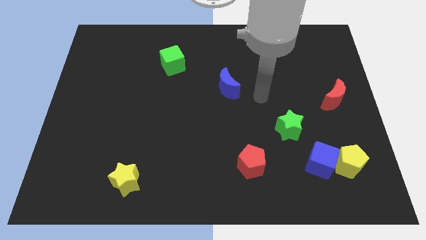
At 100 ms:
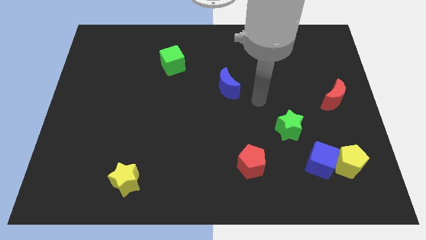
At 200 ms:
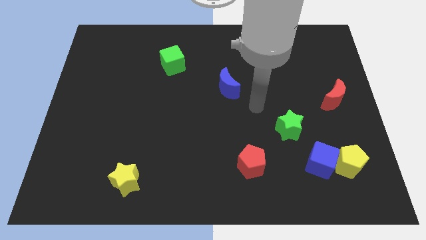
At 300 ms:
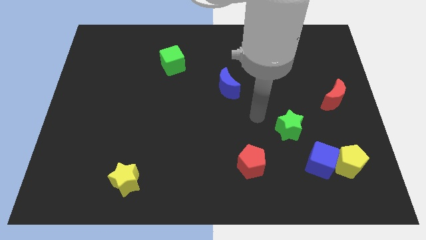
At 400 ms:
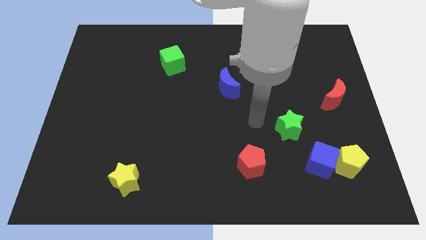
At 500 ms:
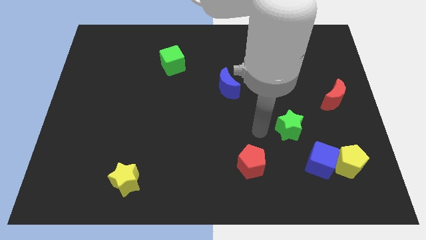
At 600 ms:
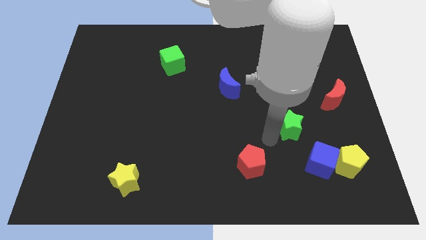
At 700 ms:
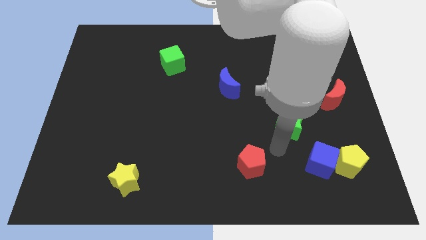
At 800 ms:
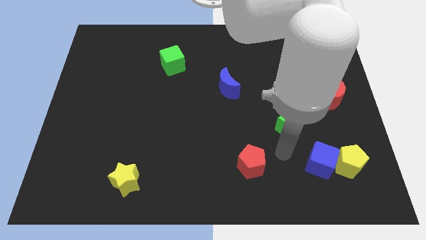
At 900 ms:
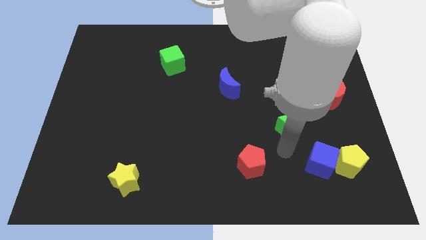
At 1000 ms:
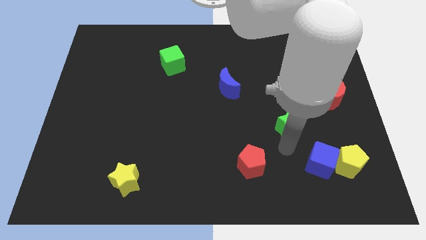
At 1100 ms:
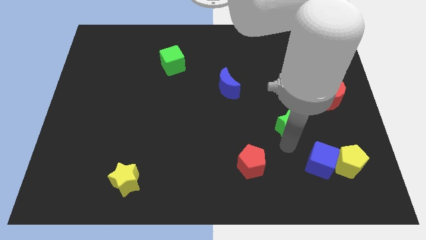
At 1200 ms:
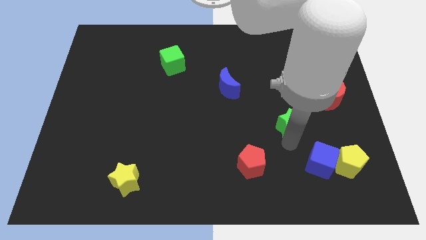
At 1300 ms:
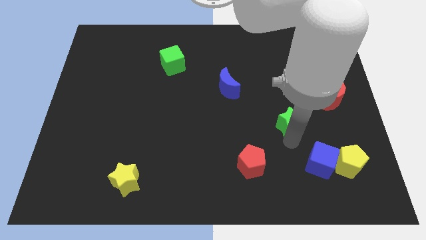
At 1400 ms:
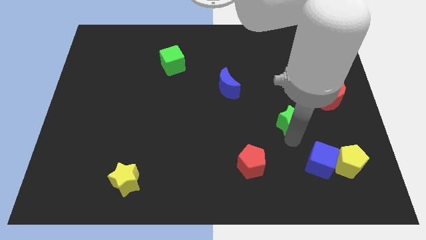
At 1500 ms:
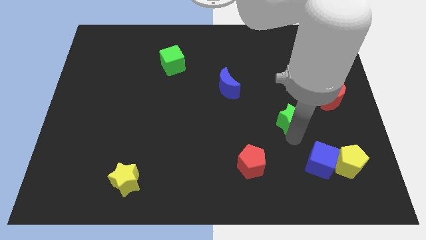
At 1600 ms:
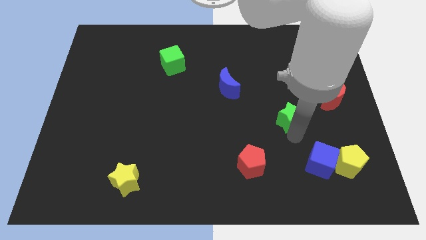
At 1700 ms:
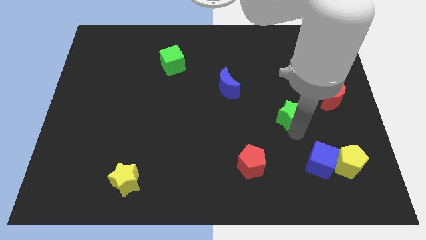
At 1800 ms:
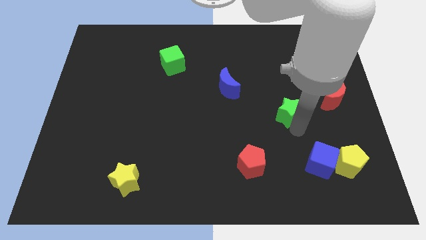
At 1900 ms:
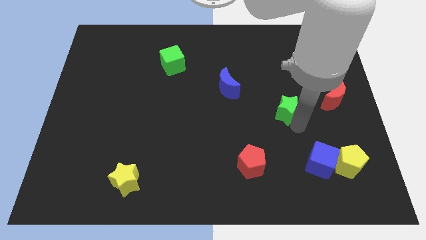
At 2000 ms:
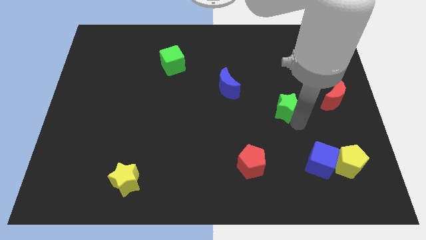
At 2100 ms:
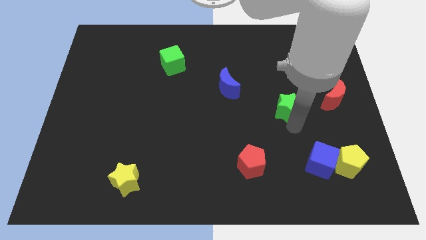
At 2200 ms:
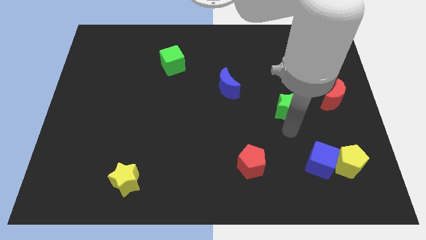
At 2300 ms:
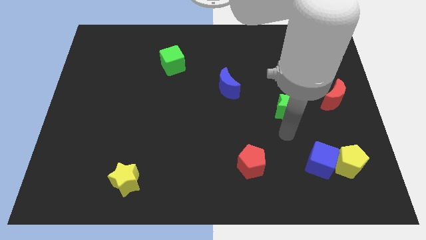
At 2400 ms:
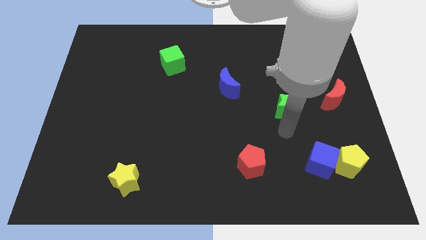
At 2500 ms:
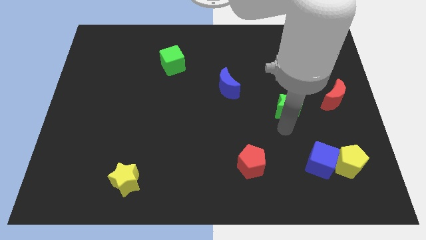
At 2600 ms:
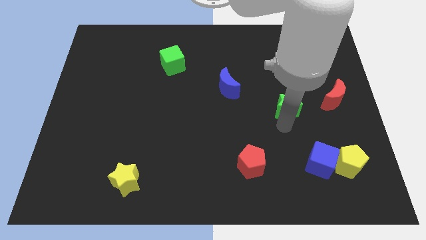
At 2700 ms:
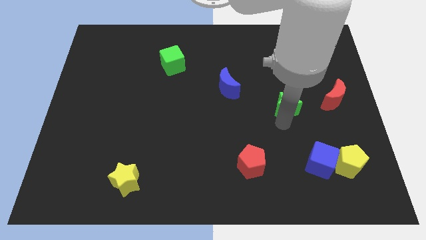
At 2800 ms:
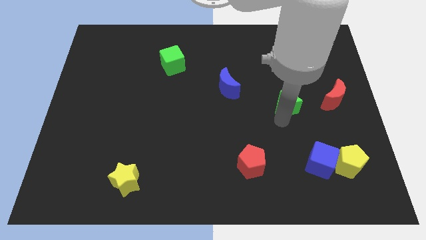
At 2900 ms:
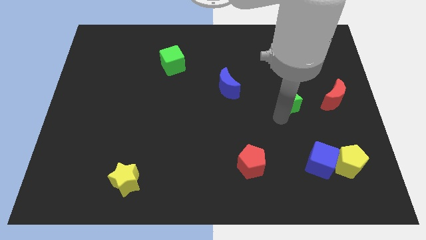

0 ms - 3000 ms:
slightly push the green star up

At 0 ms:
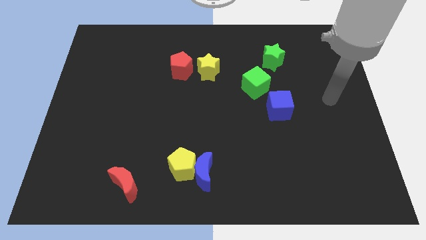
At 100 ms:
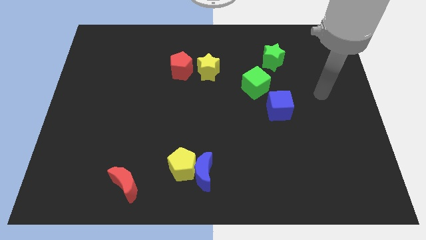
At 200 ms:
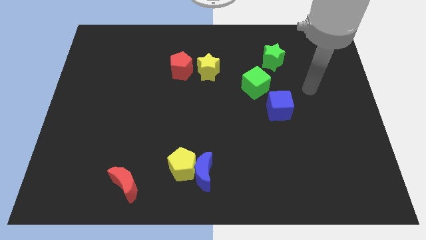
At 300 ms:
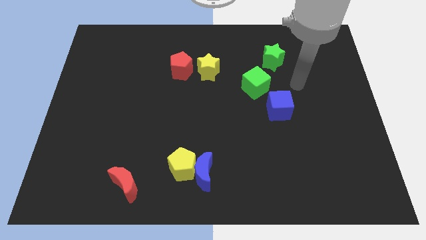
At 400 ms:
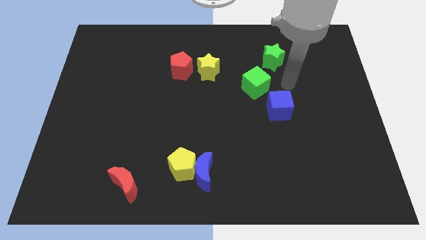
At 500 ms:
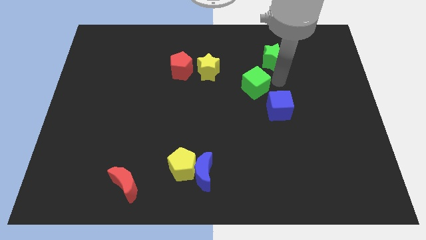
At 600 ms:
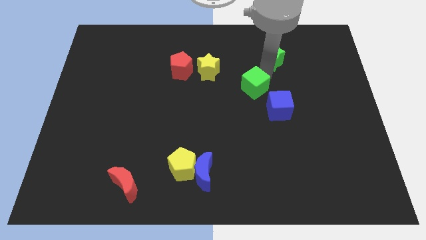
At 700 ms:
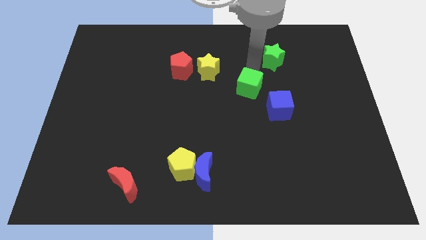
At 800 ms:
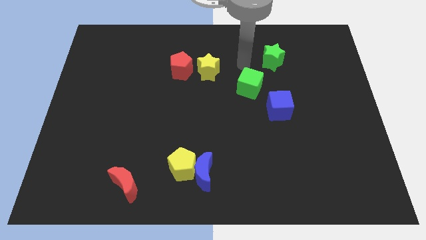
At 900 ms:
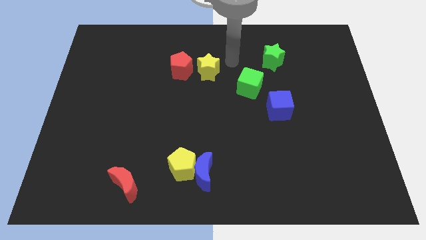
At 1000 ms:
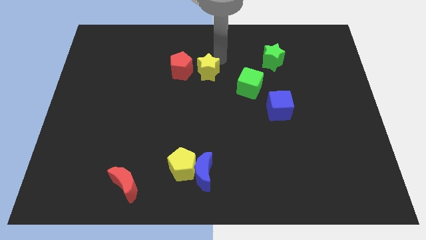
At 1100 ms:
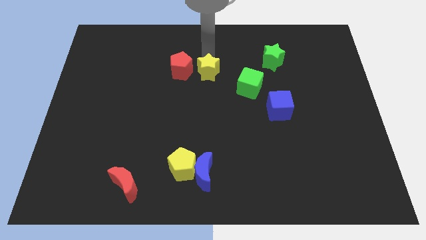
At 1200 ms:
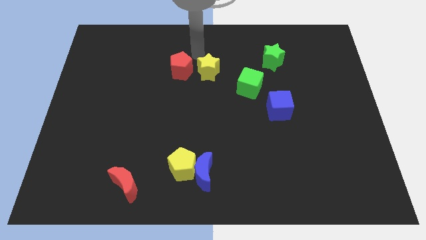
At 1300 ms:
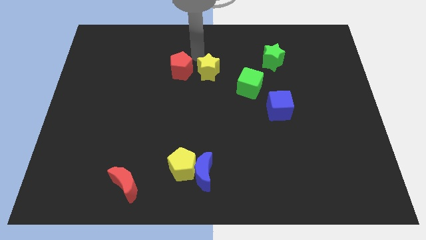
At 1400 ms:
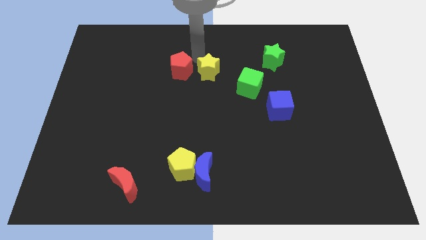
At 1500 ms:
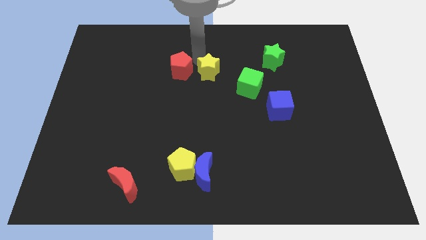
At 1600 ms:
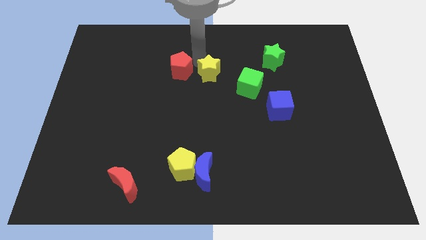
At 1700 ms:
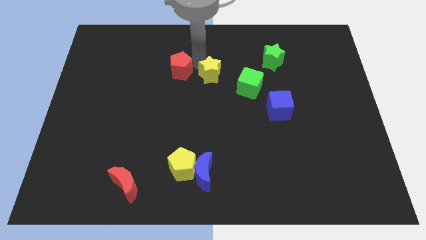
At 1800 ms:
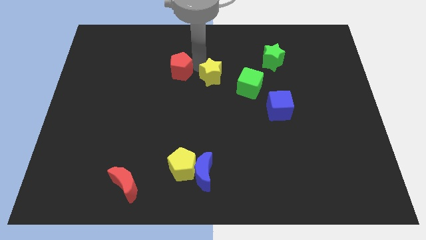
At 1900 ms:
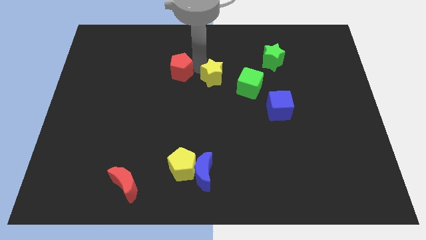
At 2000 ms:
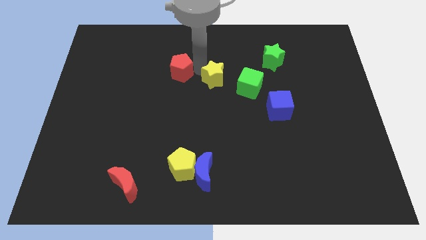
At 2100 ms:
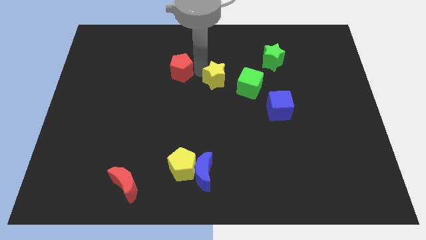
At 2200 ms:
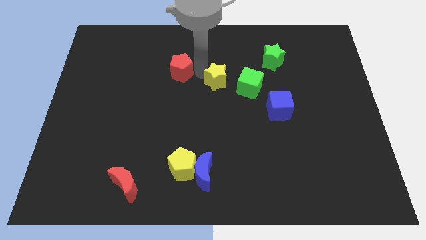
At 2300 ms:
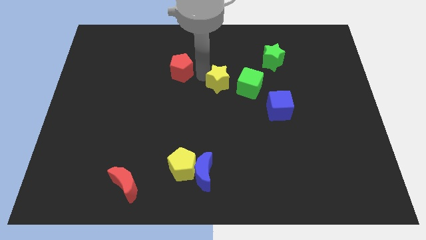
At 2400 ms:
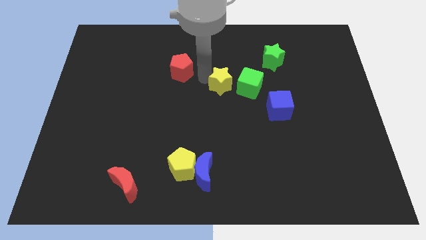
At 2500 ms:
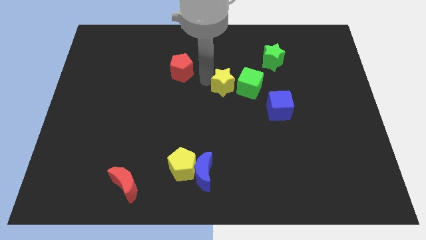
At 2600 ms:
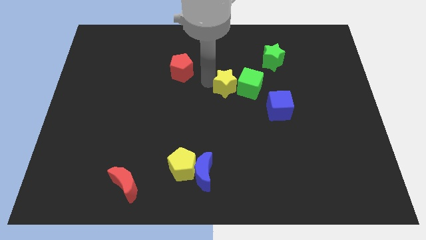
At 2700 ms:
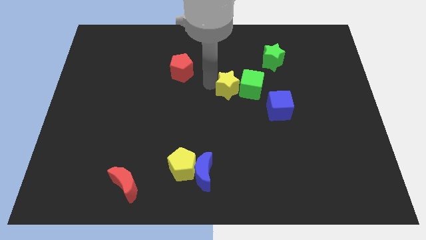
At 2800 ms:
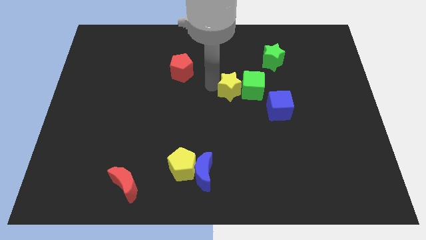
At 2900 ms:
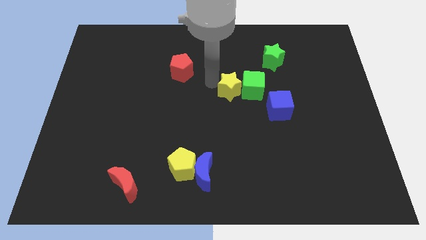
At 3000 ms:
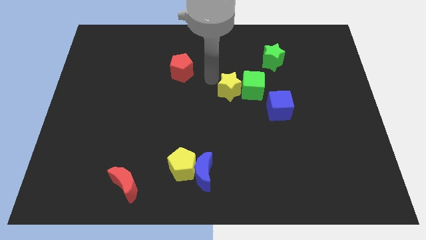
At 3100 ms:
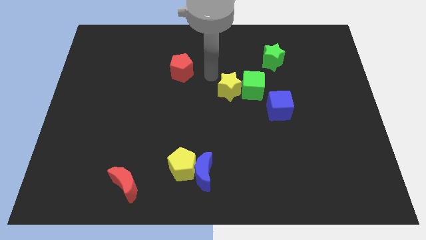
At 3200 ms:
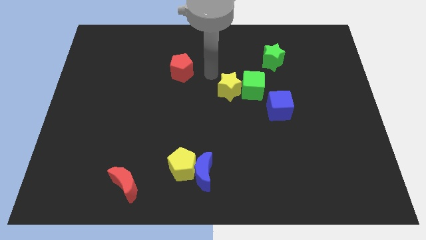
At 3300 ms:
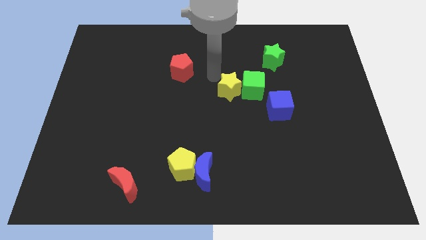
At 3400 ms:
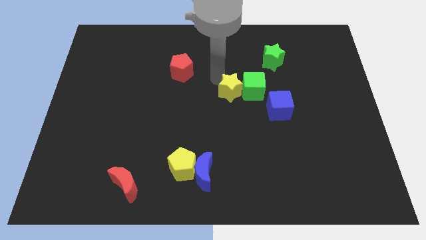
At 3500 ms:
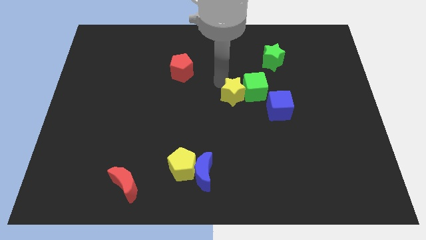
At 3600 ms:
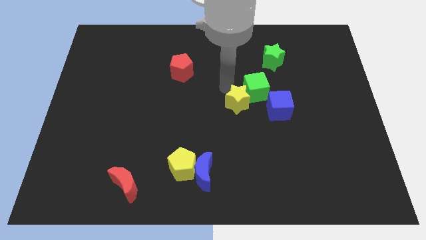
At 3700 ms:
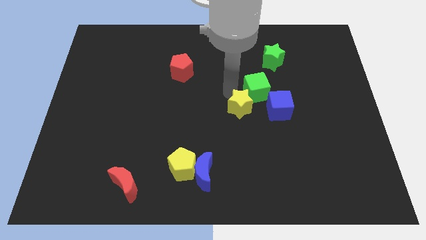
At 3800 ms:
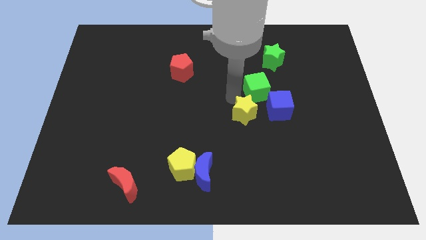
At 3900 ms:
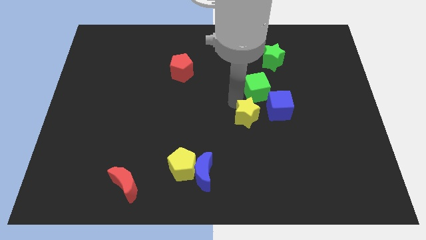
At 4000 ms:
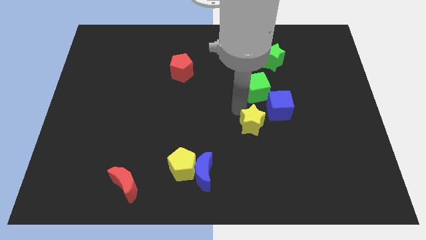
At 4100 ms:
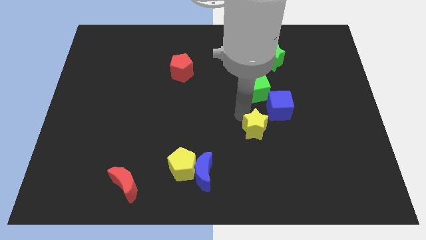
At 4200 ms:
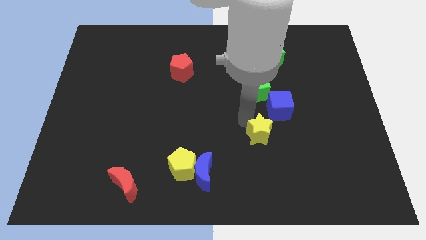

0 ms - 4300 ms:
push the yellow star down and right

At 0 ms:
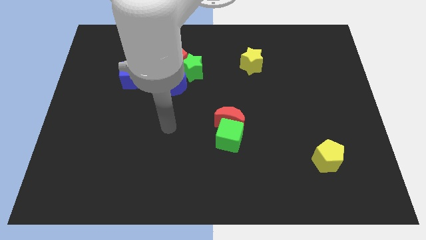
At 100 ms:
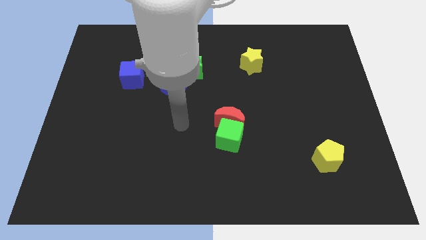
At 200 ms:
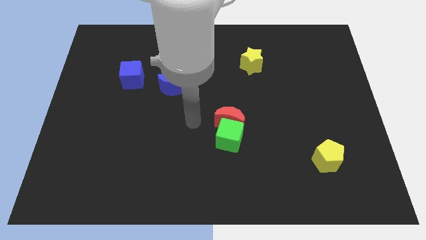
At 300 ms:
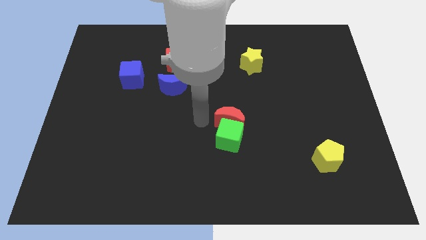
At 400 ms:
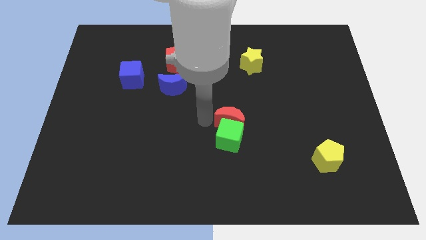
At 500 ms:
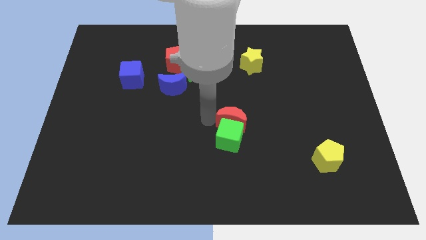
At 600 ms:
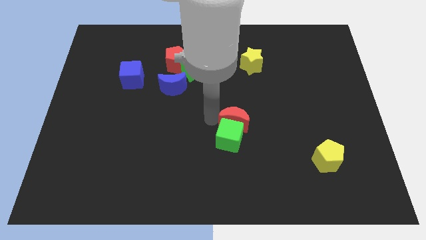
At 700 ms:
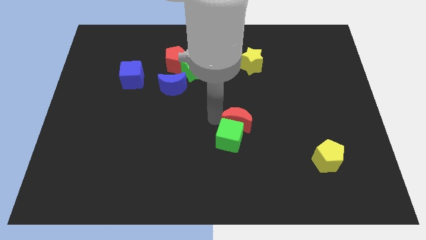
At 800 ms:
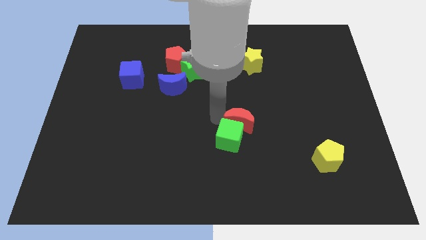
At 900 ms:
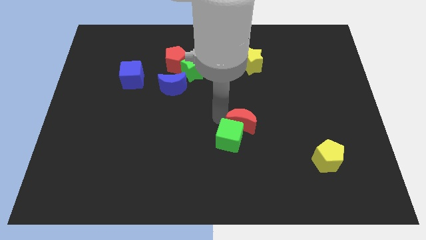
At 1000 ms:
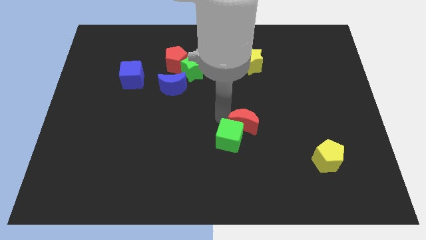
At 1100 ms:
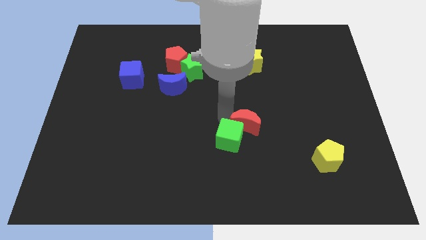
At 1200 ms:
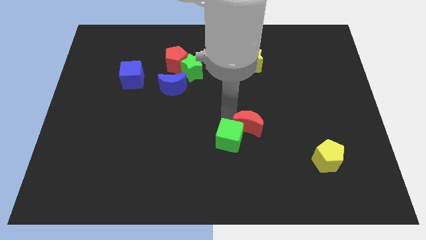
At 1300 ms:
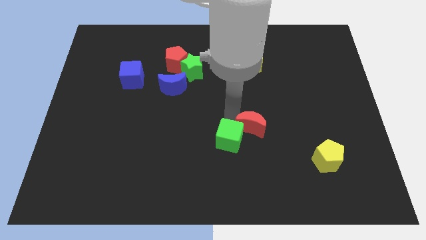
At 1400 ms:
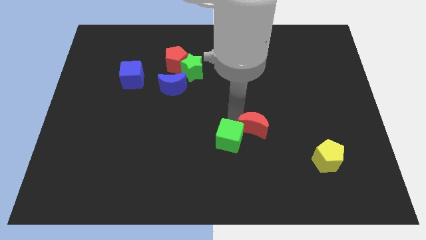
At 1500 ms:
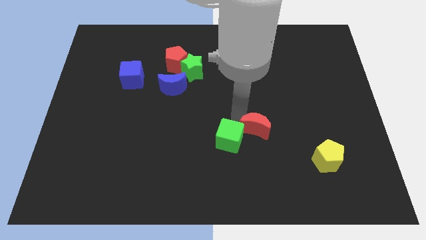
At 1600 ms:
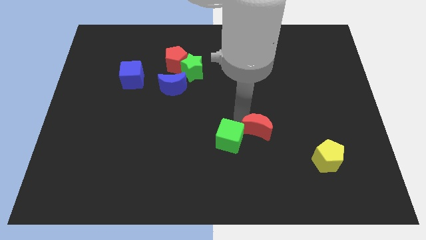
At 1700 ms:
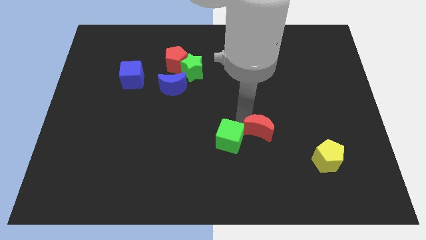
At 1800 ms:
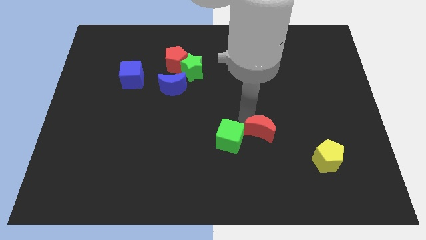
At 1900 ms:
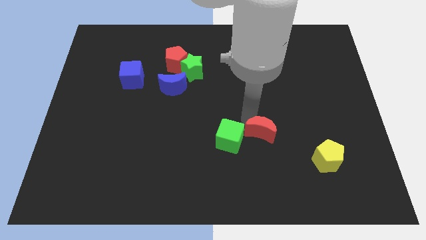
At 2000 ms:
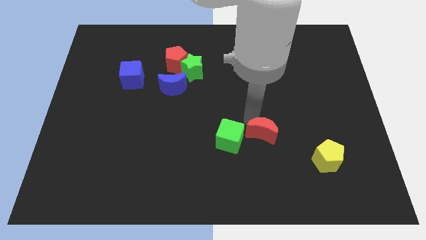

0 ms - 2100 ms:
slide the red moon slightly to the right
